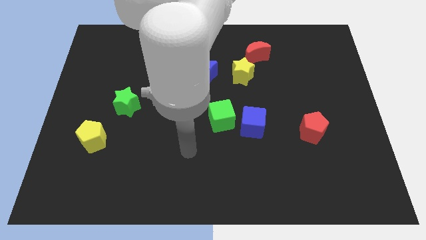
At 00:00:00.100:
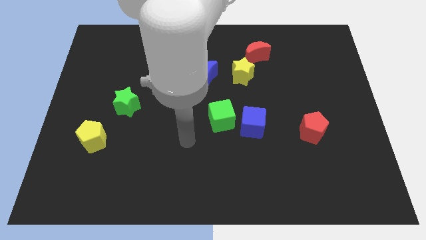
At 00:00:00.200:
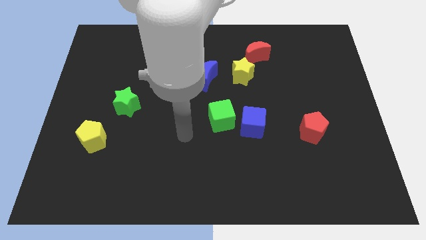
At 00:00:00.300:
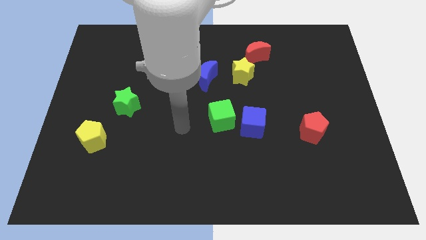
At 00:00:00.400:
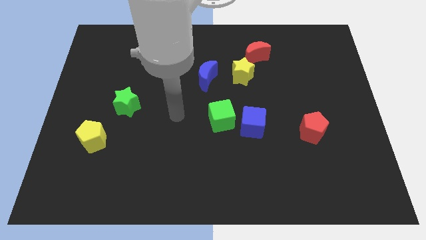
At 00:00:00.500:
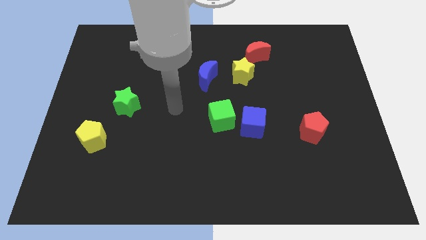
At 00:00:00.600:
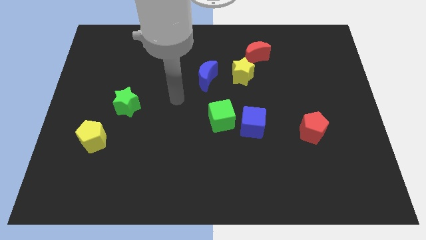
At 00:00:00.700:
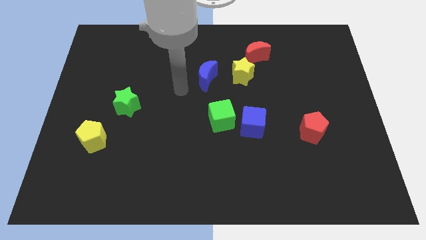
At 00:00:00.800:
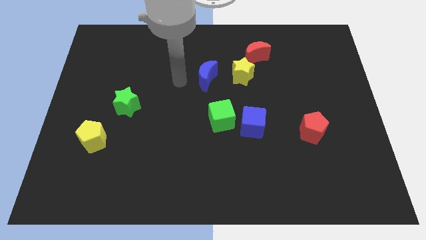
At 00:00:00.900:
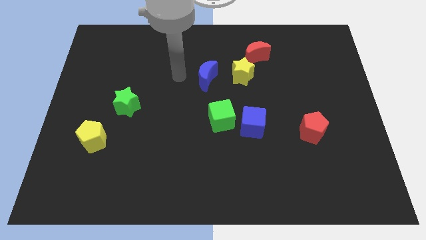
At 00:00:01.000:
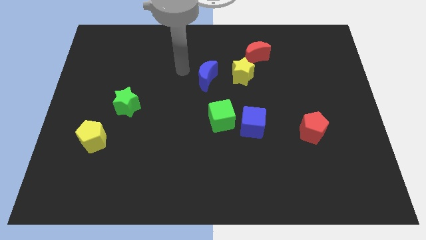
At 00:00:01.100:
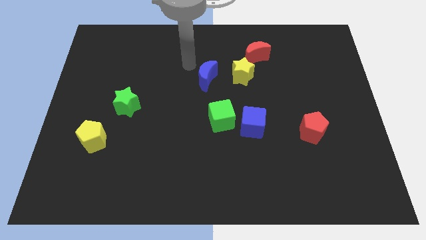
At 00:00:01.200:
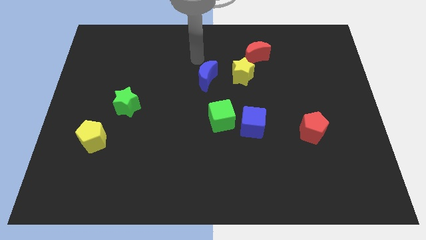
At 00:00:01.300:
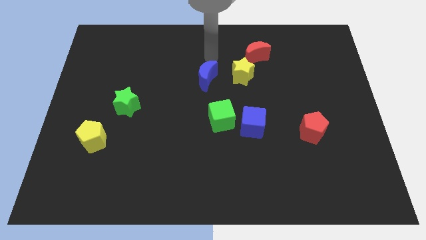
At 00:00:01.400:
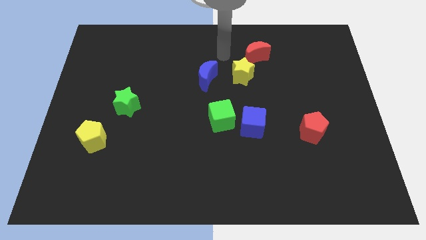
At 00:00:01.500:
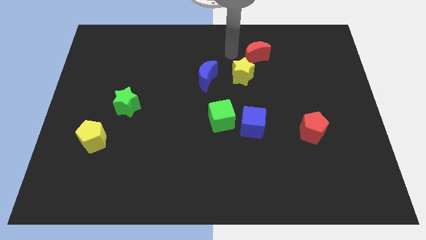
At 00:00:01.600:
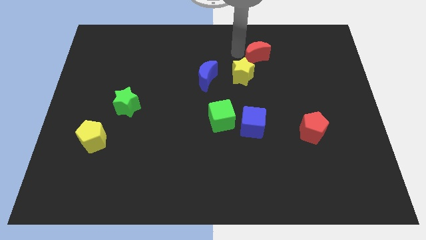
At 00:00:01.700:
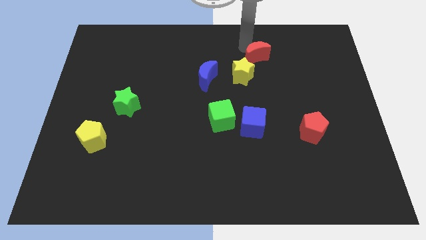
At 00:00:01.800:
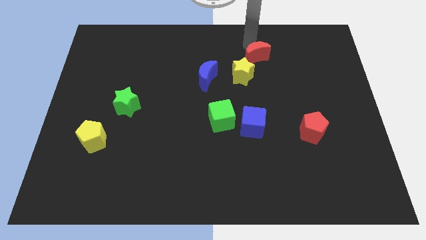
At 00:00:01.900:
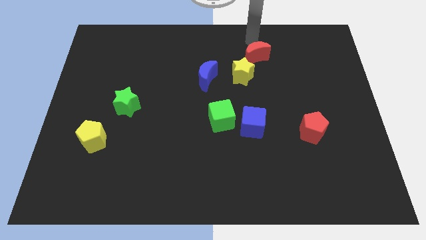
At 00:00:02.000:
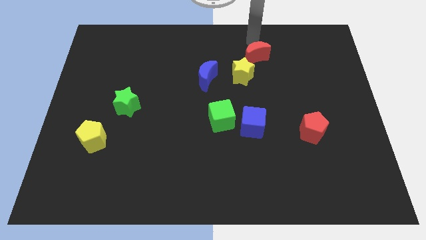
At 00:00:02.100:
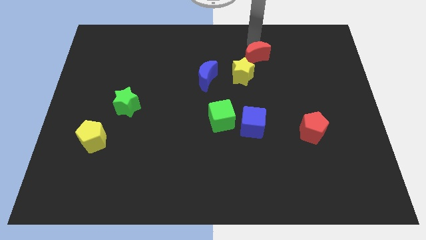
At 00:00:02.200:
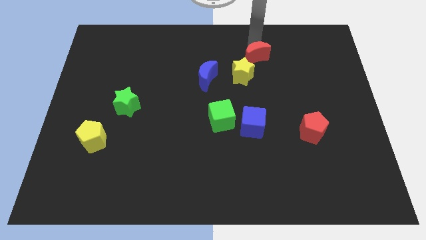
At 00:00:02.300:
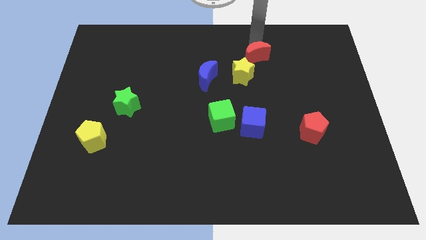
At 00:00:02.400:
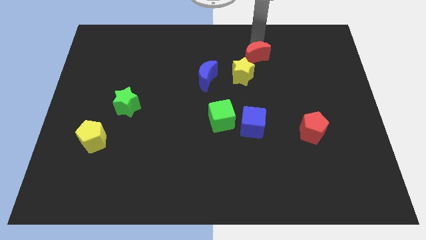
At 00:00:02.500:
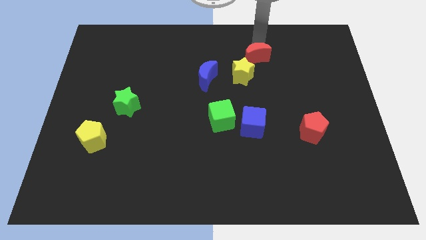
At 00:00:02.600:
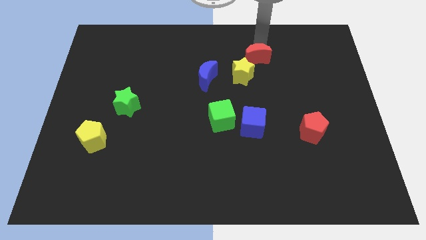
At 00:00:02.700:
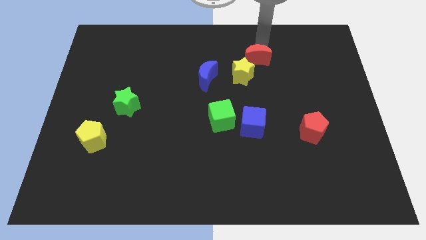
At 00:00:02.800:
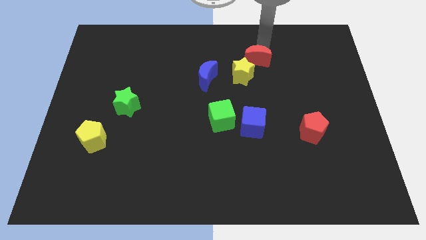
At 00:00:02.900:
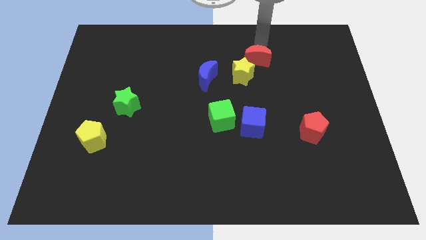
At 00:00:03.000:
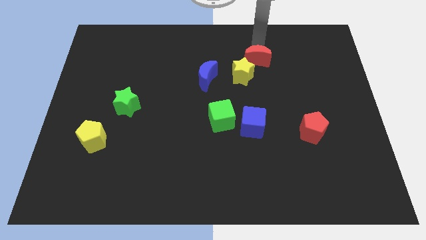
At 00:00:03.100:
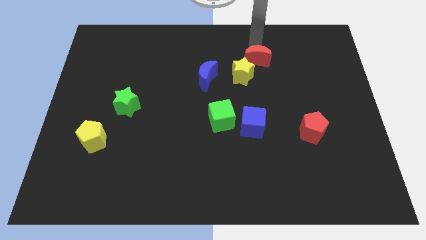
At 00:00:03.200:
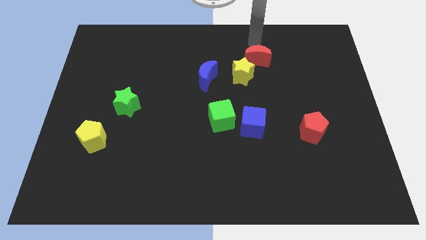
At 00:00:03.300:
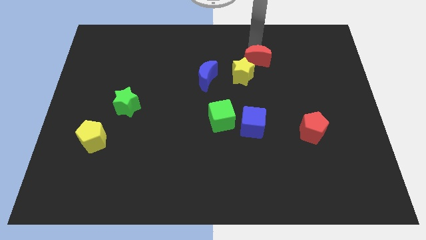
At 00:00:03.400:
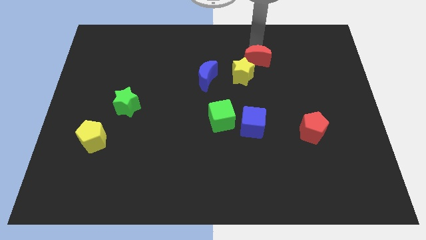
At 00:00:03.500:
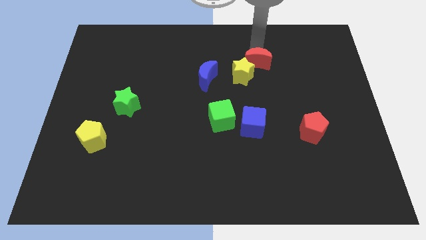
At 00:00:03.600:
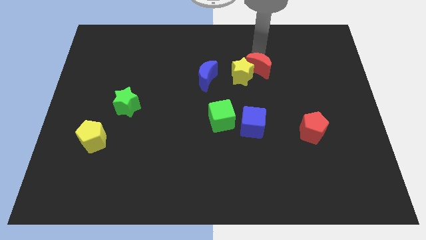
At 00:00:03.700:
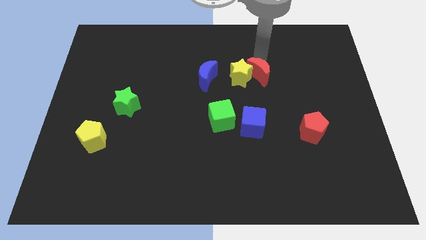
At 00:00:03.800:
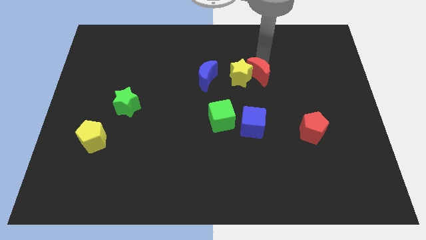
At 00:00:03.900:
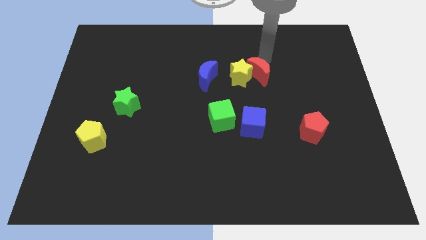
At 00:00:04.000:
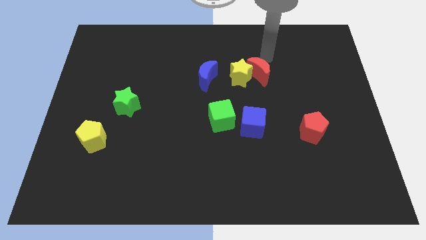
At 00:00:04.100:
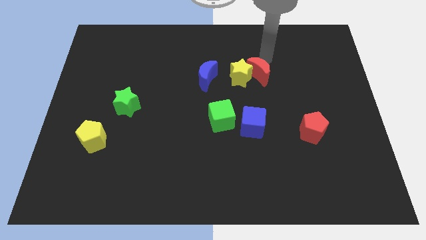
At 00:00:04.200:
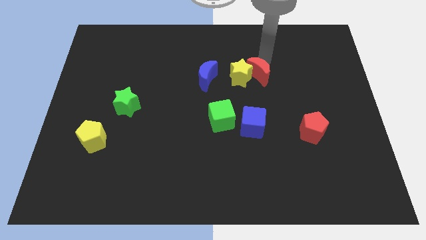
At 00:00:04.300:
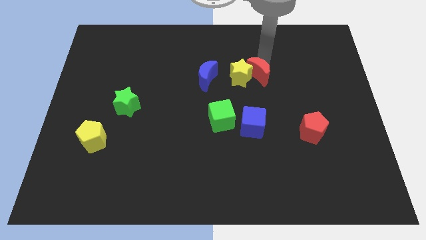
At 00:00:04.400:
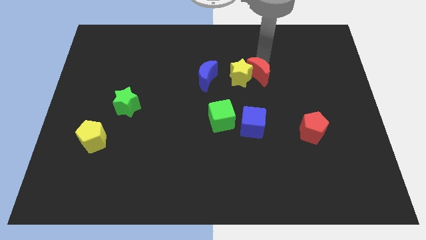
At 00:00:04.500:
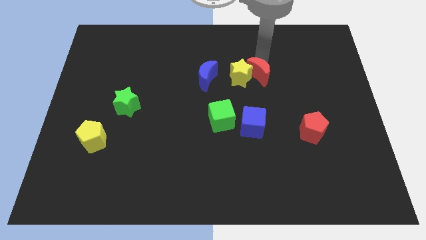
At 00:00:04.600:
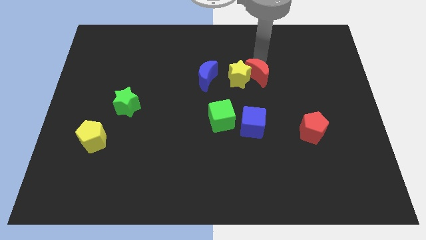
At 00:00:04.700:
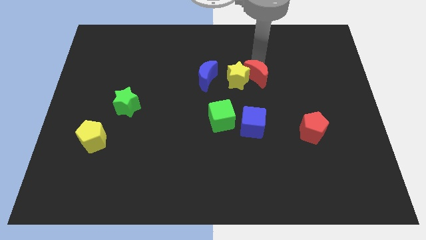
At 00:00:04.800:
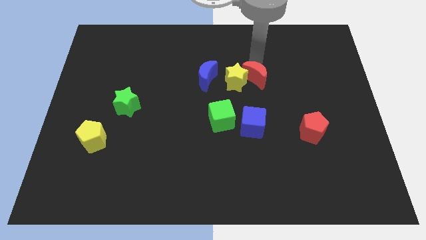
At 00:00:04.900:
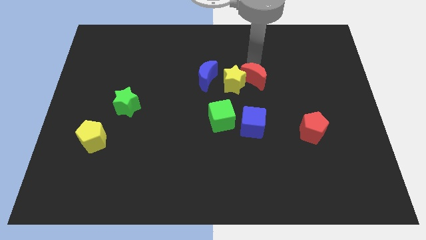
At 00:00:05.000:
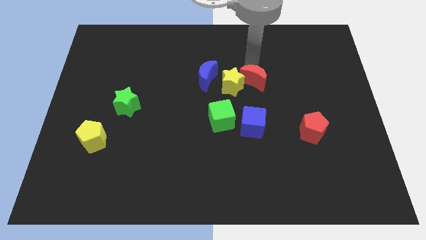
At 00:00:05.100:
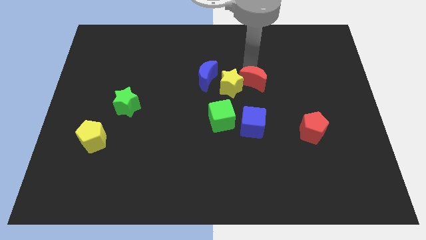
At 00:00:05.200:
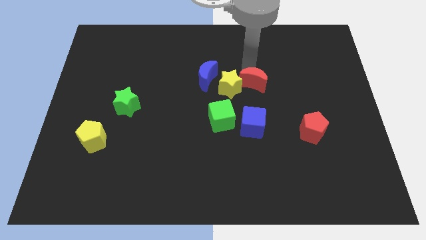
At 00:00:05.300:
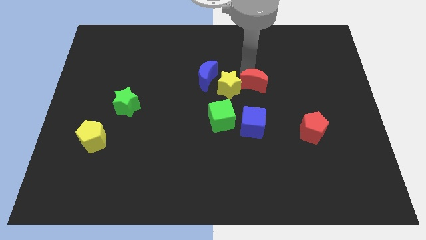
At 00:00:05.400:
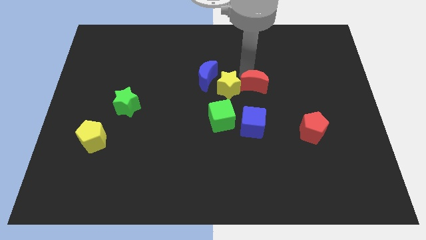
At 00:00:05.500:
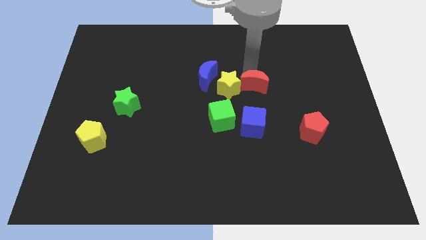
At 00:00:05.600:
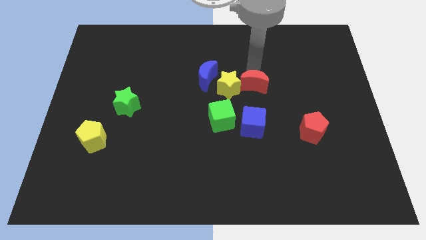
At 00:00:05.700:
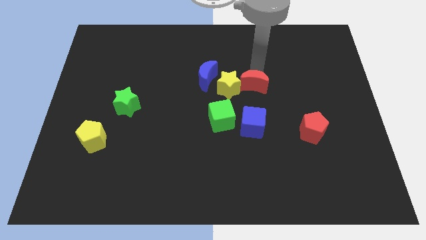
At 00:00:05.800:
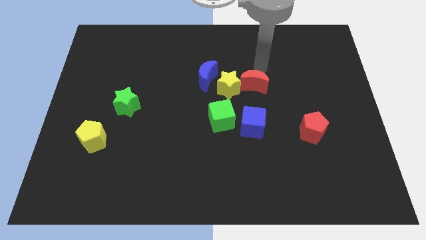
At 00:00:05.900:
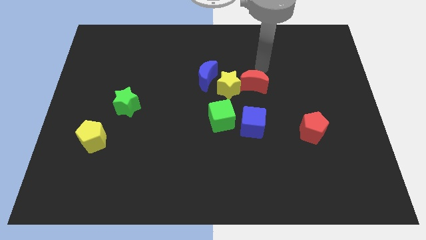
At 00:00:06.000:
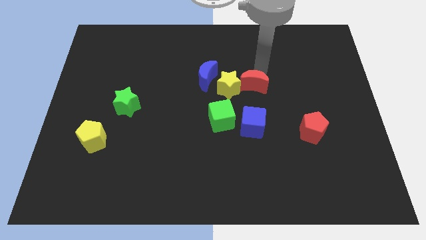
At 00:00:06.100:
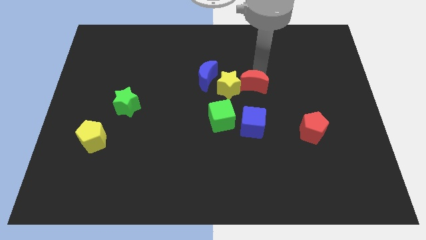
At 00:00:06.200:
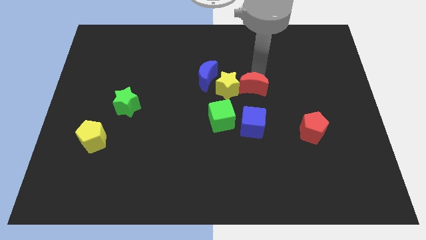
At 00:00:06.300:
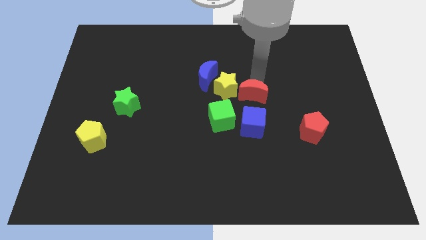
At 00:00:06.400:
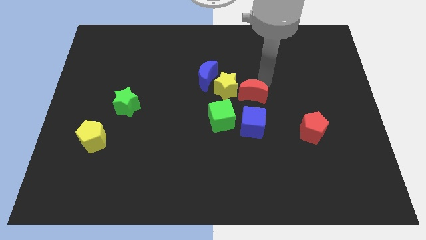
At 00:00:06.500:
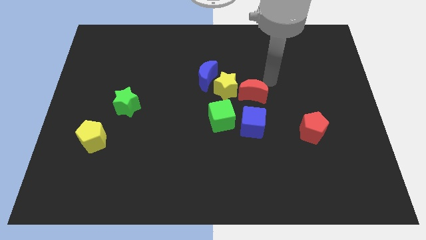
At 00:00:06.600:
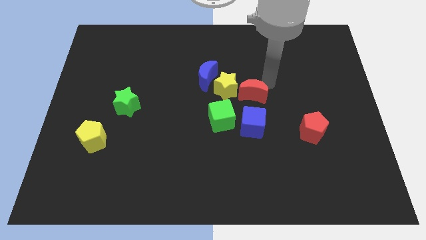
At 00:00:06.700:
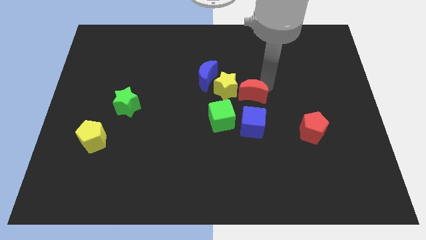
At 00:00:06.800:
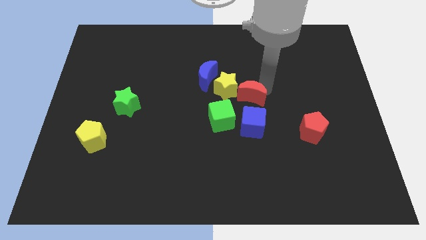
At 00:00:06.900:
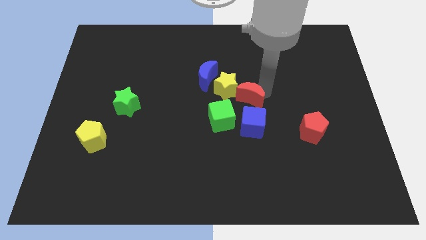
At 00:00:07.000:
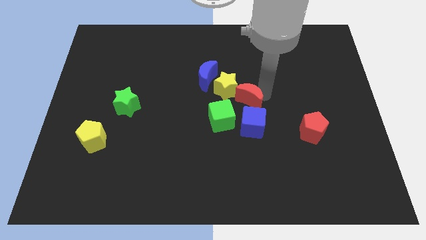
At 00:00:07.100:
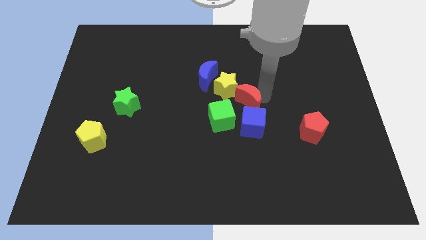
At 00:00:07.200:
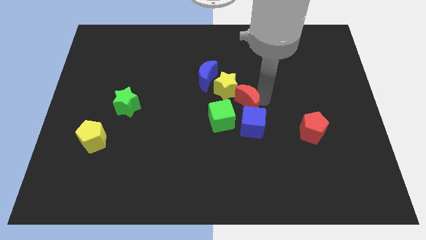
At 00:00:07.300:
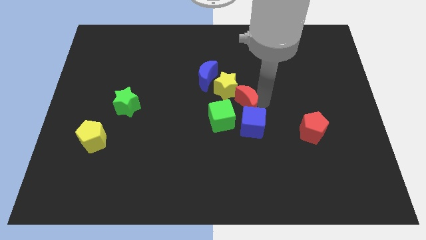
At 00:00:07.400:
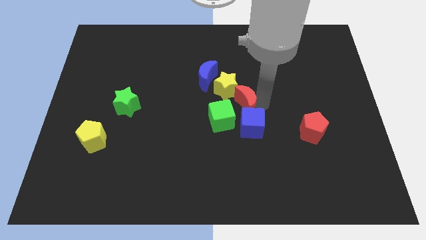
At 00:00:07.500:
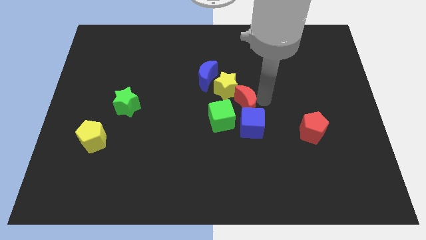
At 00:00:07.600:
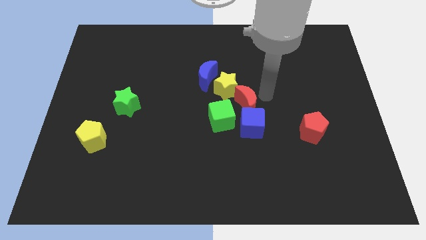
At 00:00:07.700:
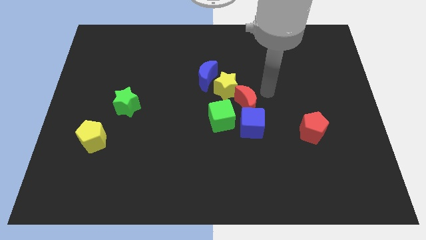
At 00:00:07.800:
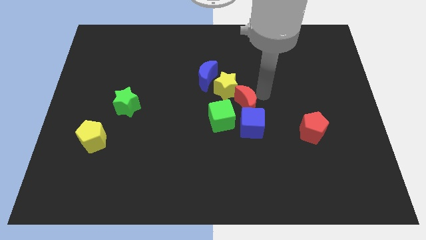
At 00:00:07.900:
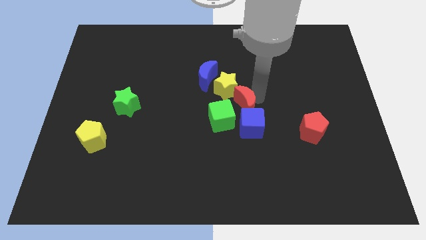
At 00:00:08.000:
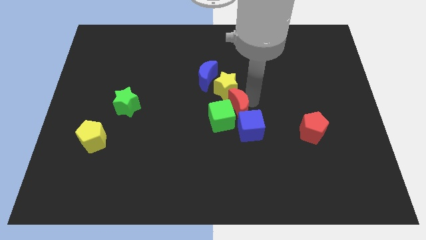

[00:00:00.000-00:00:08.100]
put the red moon next to the green cube
